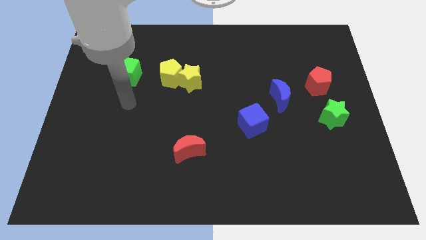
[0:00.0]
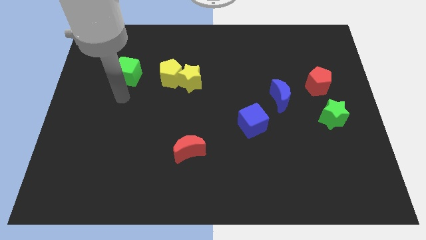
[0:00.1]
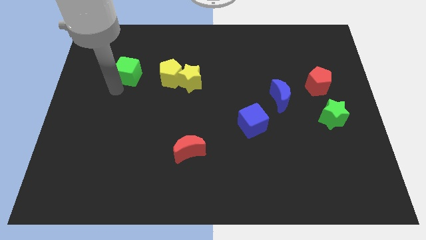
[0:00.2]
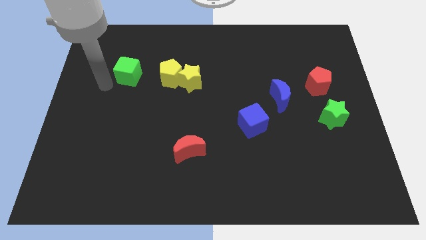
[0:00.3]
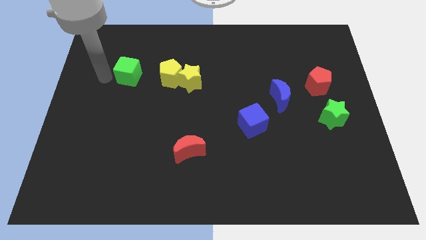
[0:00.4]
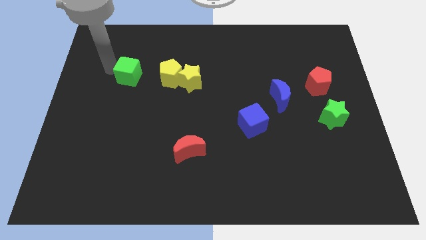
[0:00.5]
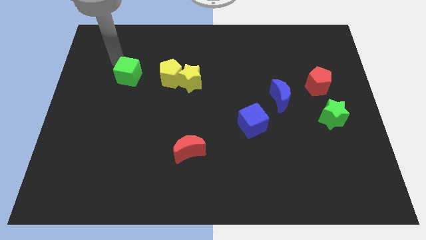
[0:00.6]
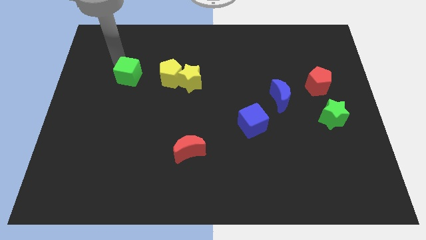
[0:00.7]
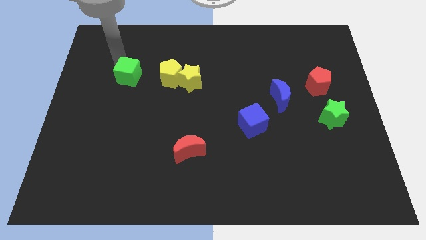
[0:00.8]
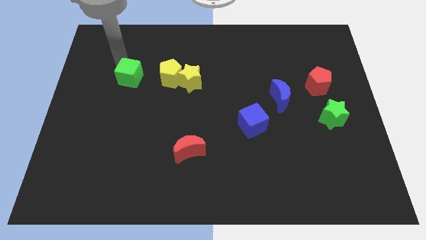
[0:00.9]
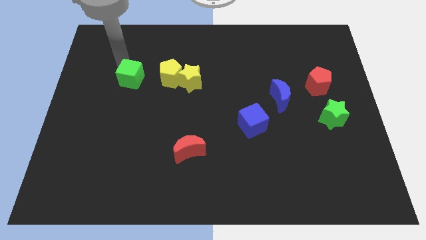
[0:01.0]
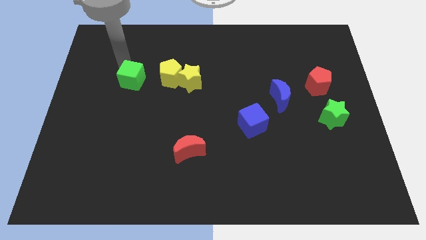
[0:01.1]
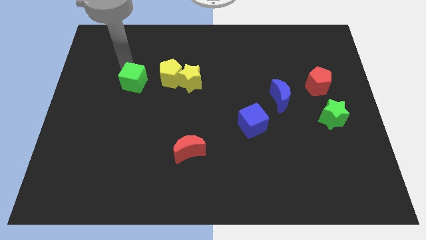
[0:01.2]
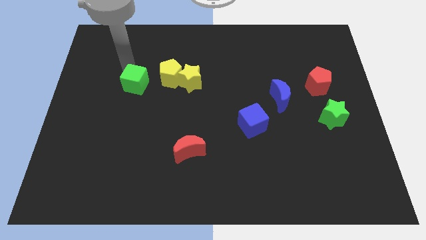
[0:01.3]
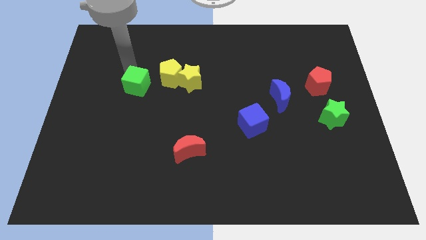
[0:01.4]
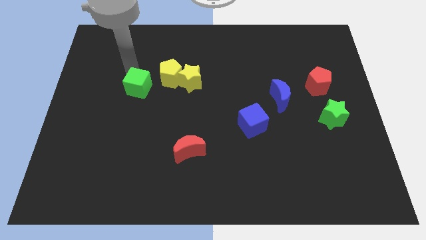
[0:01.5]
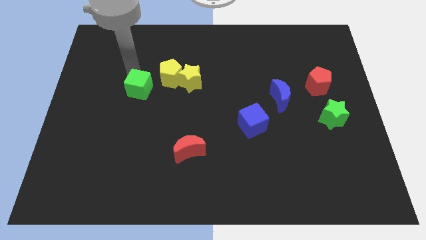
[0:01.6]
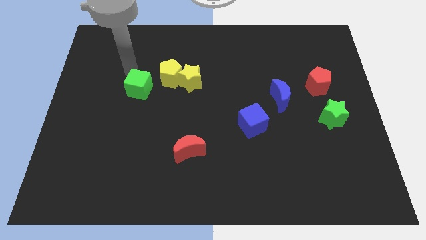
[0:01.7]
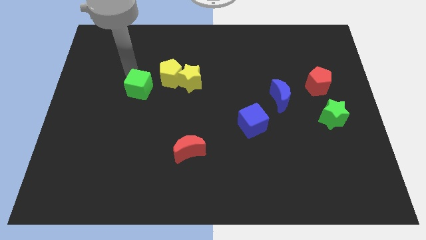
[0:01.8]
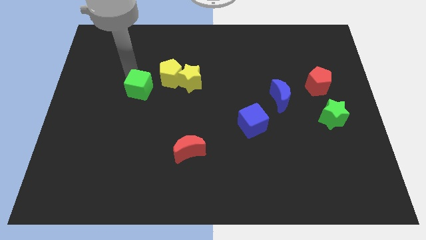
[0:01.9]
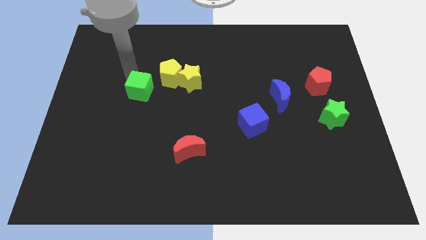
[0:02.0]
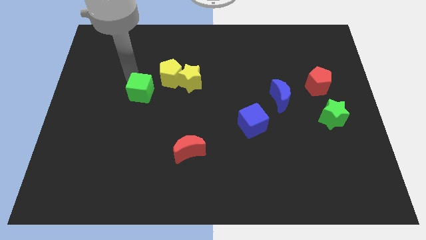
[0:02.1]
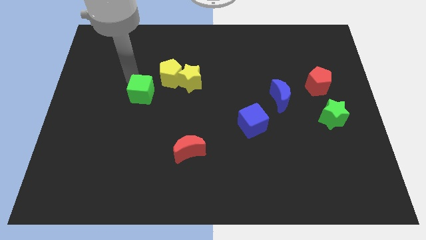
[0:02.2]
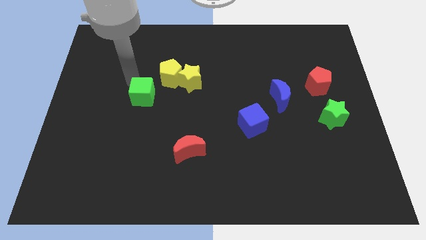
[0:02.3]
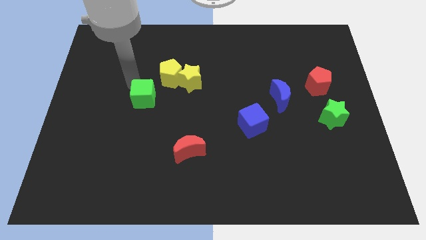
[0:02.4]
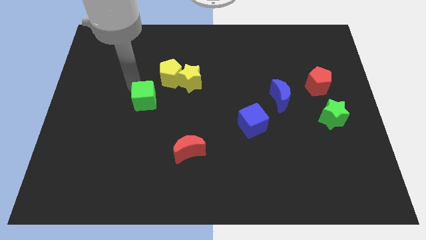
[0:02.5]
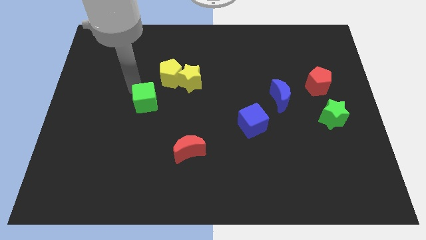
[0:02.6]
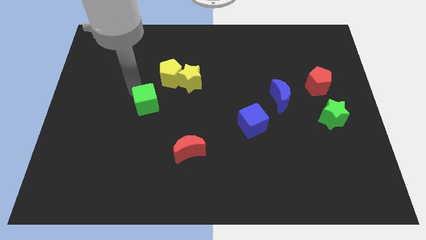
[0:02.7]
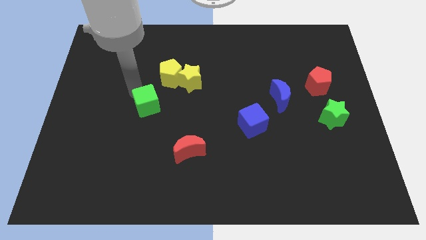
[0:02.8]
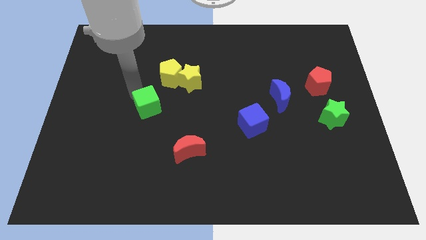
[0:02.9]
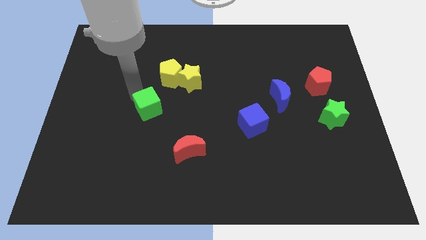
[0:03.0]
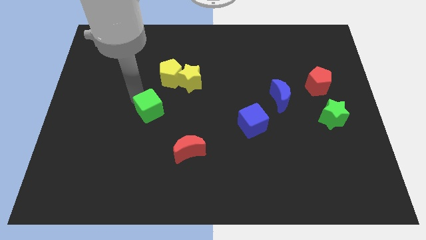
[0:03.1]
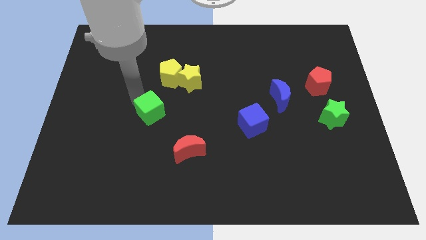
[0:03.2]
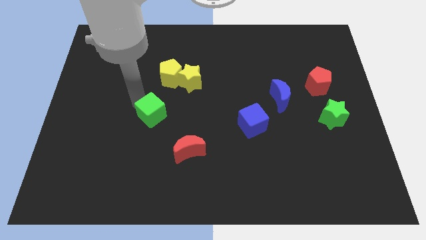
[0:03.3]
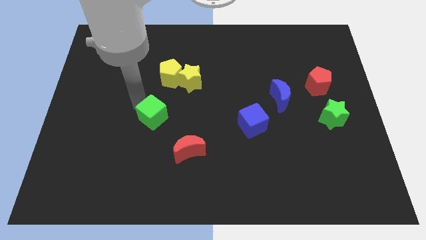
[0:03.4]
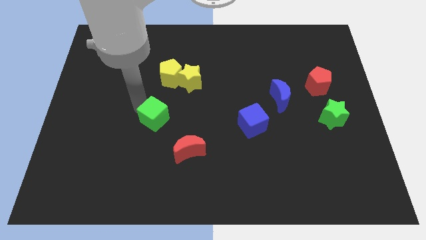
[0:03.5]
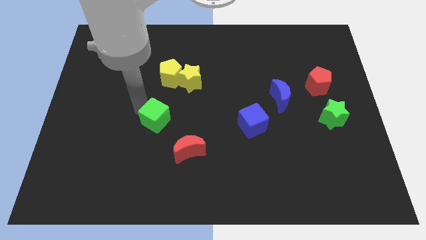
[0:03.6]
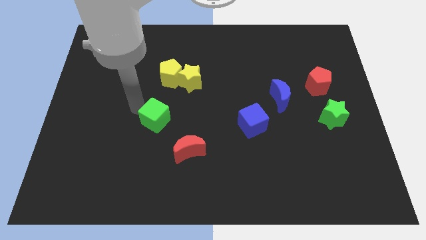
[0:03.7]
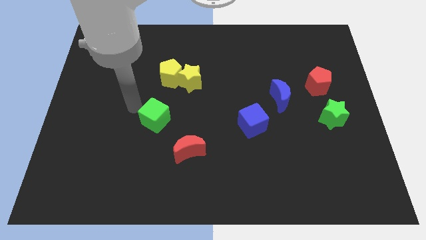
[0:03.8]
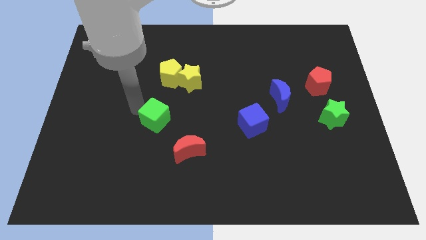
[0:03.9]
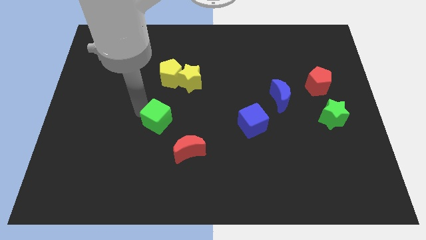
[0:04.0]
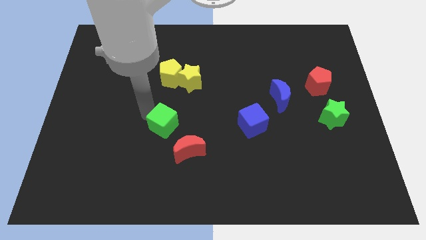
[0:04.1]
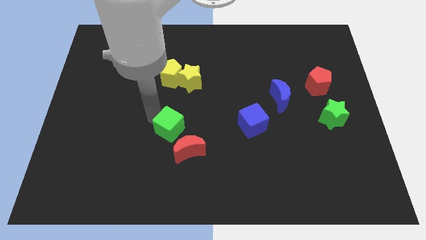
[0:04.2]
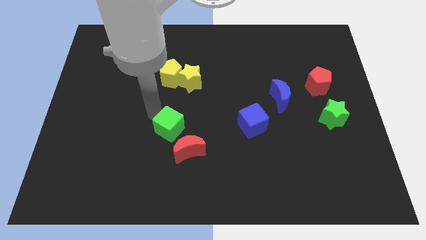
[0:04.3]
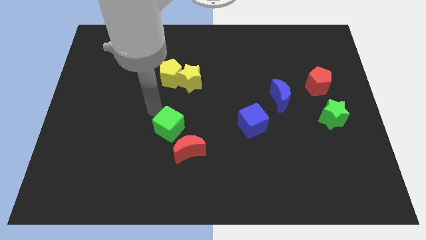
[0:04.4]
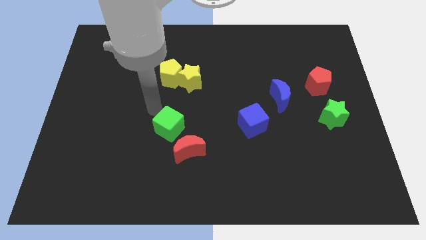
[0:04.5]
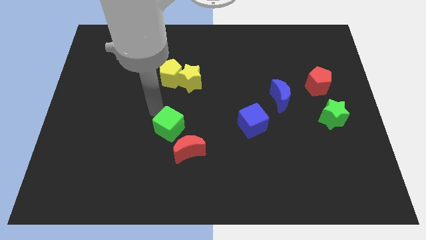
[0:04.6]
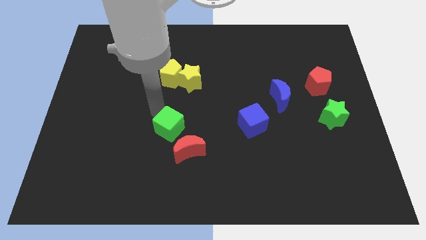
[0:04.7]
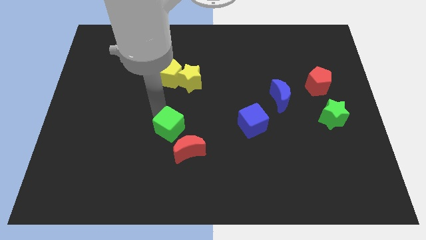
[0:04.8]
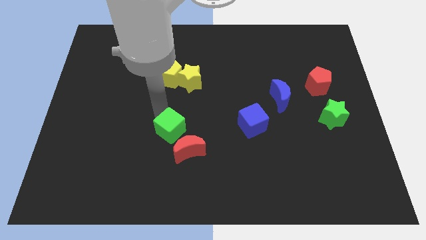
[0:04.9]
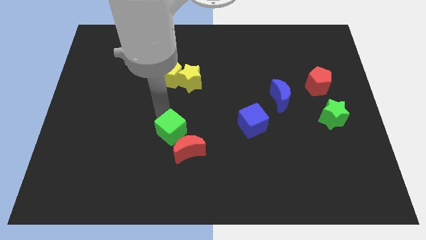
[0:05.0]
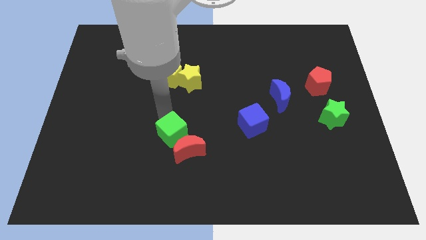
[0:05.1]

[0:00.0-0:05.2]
slide the green cube to the red moon

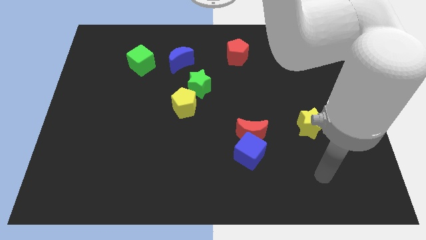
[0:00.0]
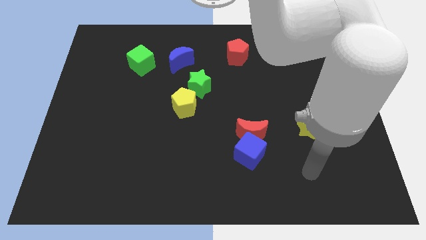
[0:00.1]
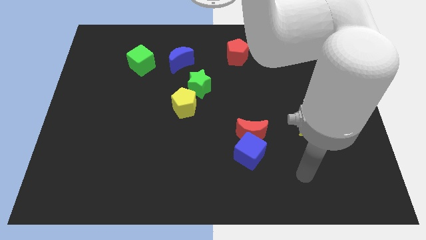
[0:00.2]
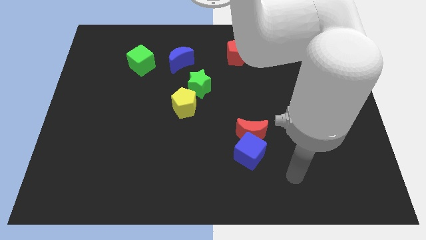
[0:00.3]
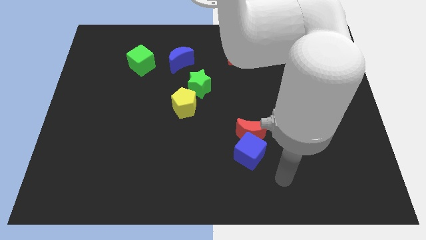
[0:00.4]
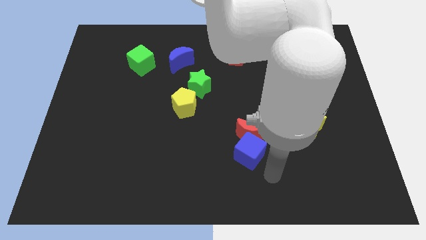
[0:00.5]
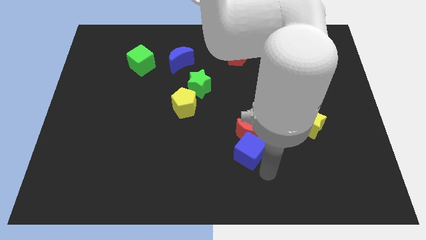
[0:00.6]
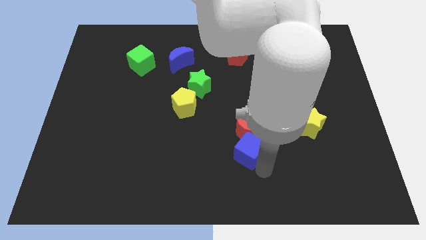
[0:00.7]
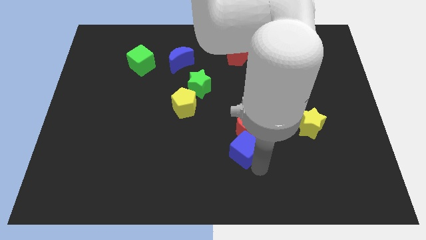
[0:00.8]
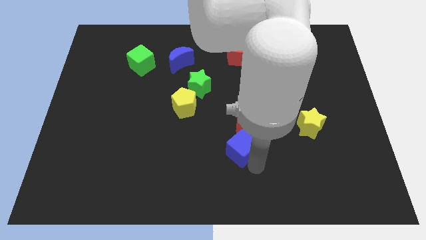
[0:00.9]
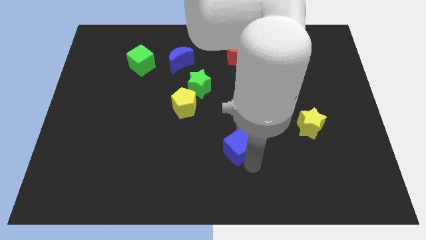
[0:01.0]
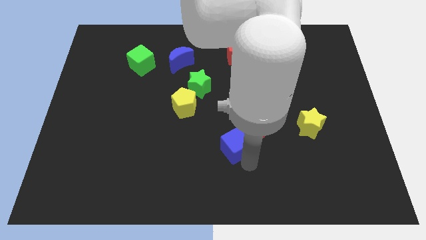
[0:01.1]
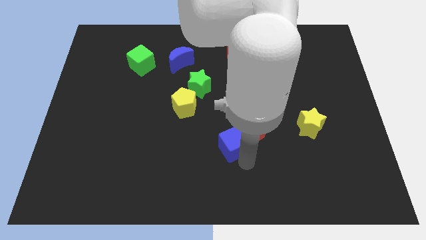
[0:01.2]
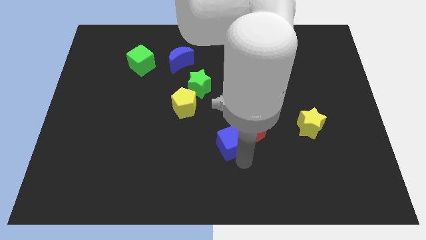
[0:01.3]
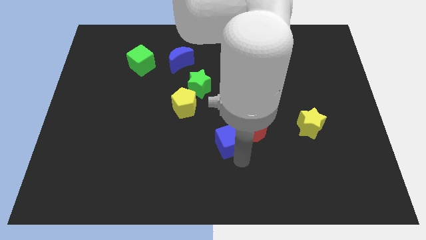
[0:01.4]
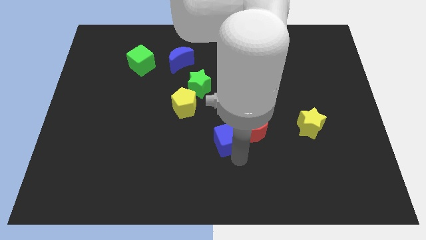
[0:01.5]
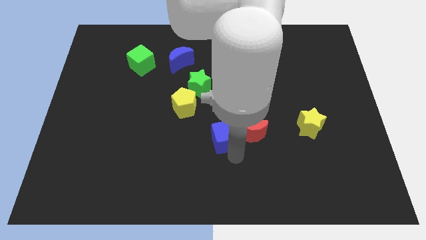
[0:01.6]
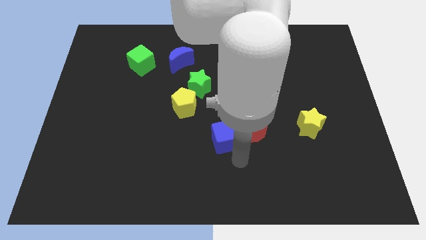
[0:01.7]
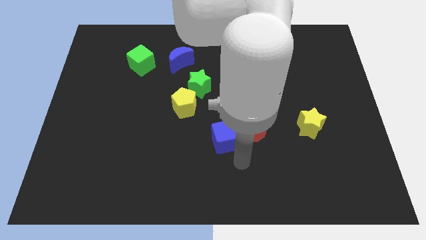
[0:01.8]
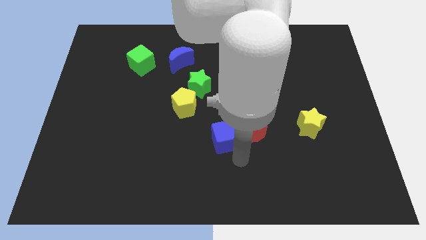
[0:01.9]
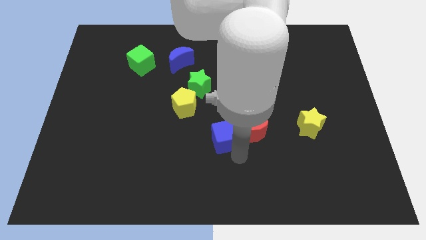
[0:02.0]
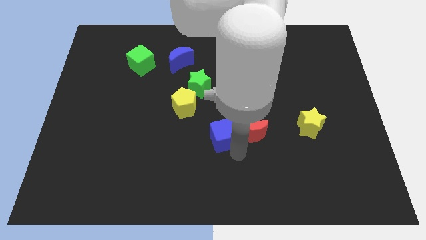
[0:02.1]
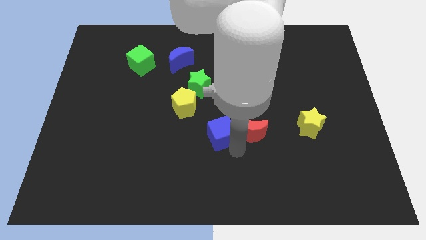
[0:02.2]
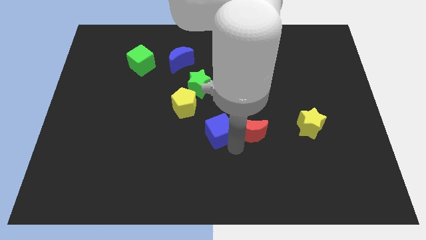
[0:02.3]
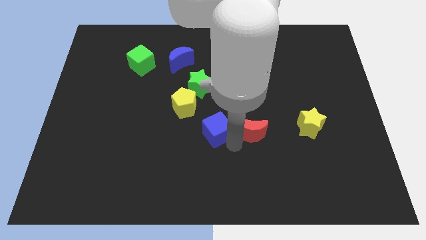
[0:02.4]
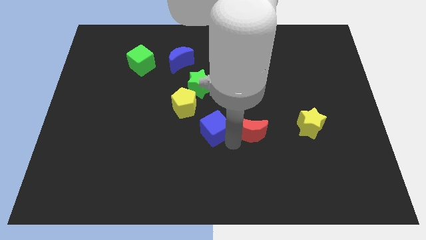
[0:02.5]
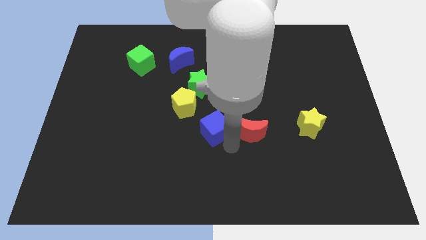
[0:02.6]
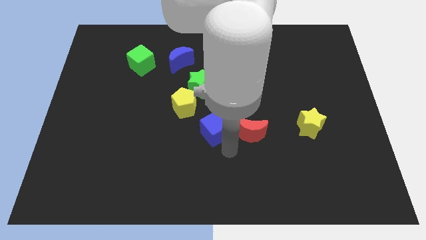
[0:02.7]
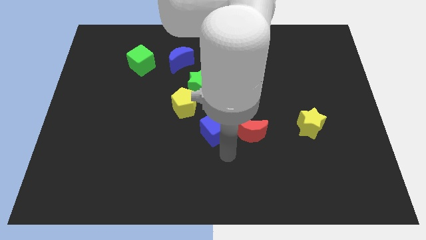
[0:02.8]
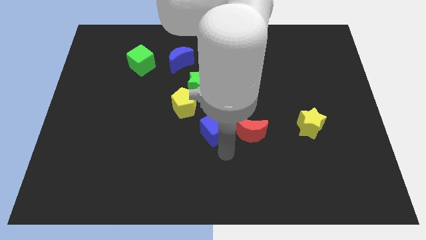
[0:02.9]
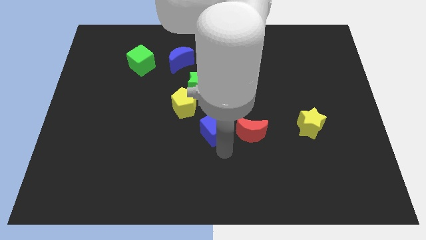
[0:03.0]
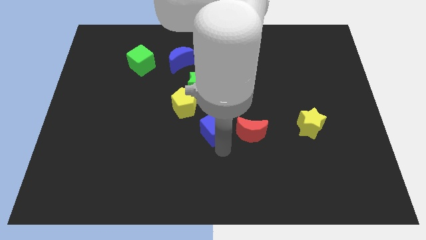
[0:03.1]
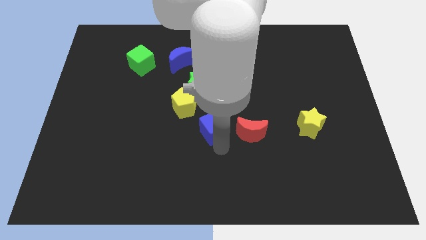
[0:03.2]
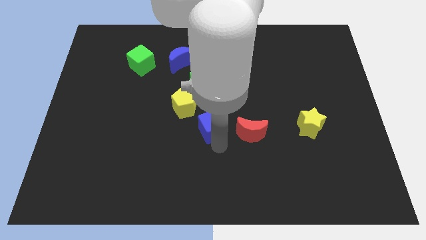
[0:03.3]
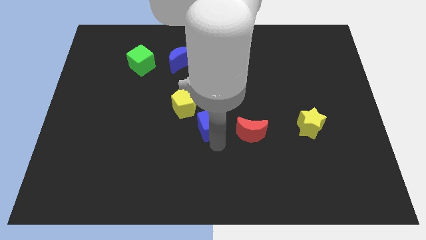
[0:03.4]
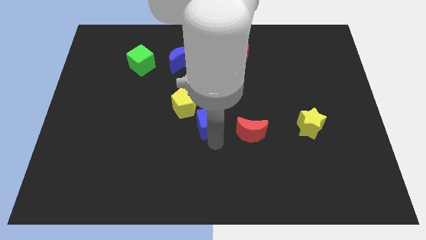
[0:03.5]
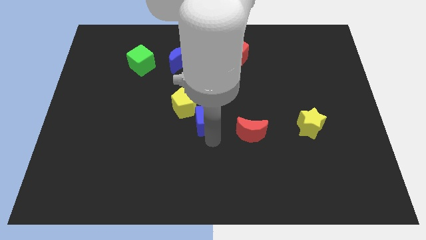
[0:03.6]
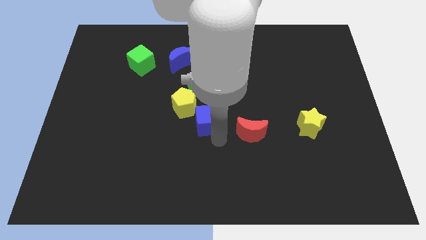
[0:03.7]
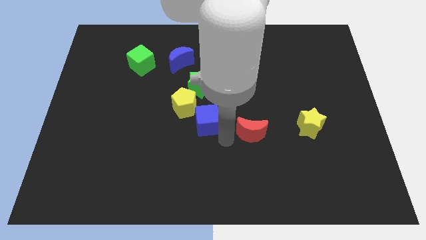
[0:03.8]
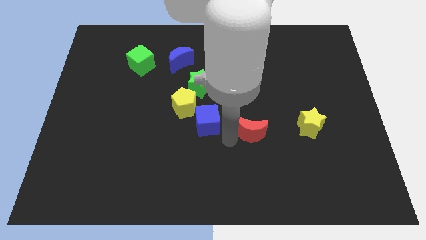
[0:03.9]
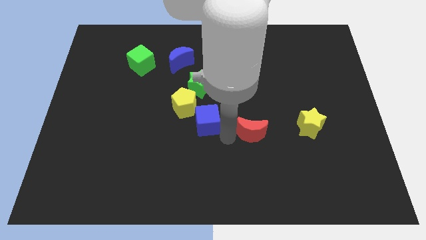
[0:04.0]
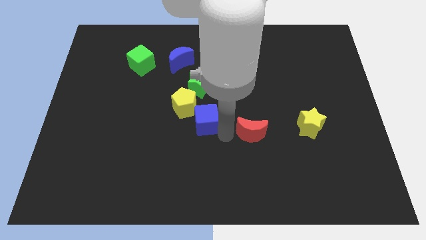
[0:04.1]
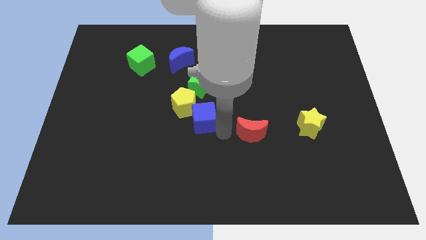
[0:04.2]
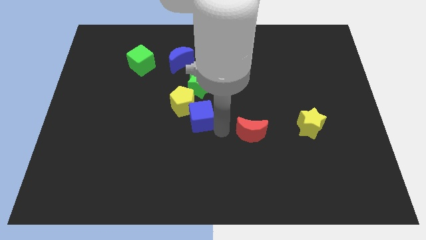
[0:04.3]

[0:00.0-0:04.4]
put the blue cube next to the yellow pentagon
